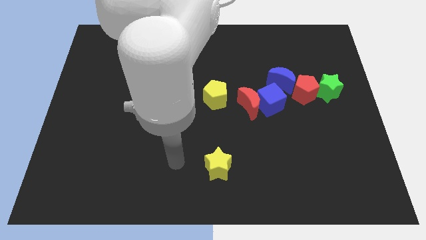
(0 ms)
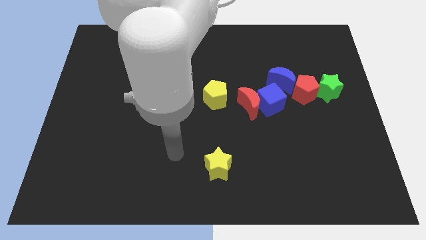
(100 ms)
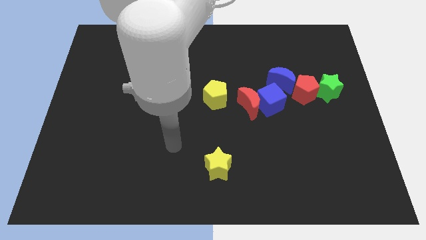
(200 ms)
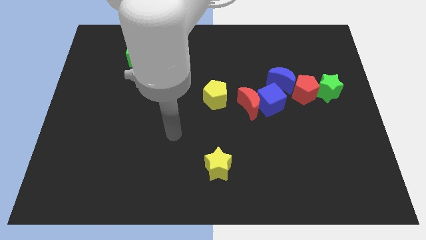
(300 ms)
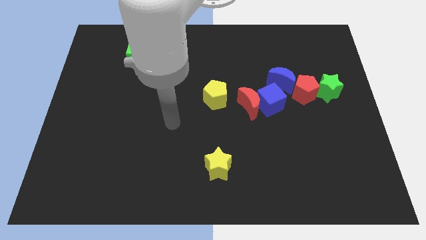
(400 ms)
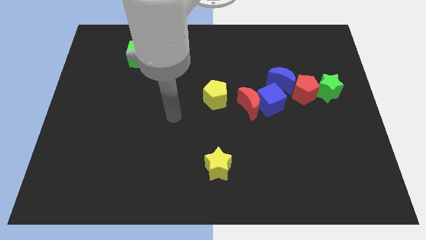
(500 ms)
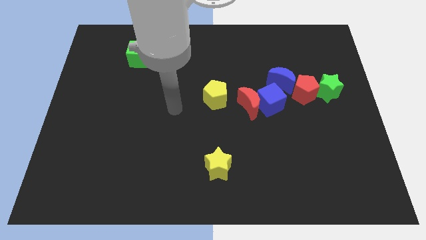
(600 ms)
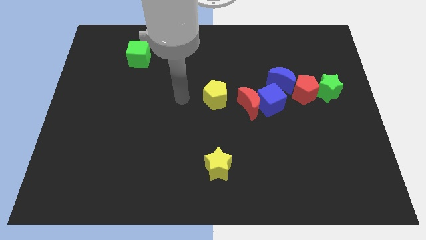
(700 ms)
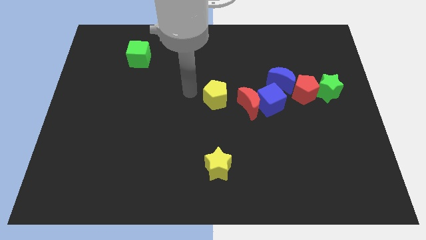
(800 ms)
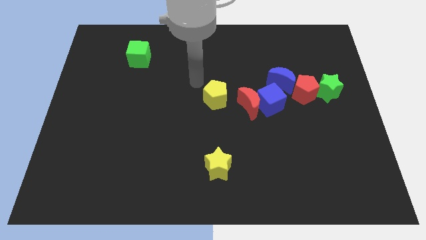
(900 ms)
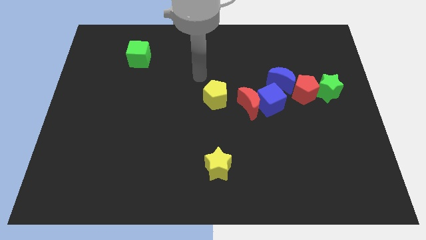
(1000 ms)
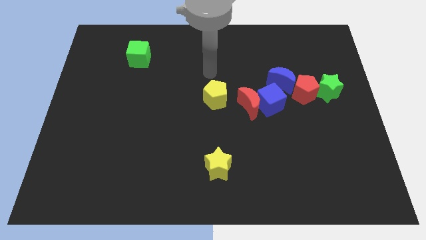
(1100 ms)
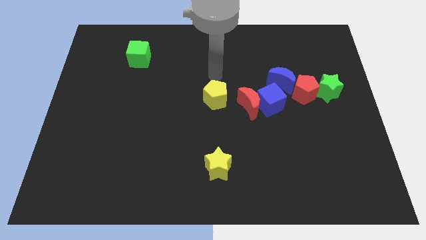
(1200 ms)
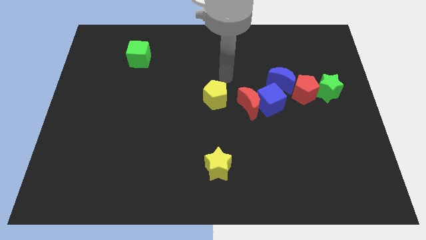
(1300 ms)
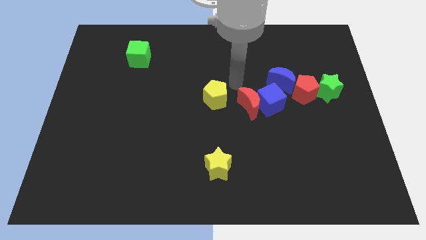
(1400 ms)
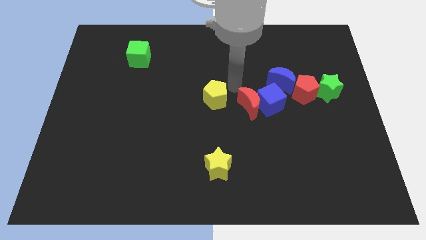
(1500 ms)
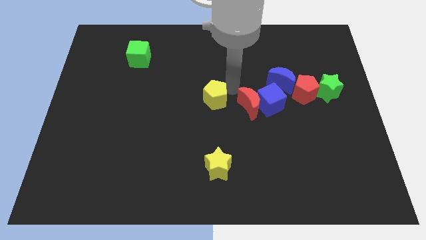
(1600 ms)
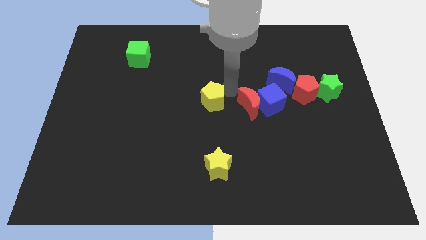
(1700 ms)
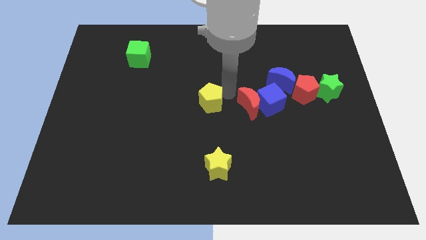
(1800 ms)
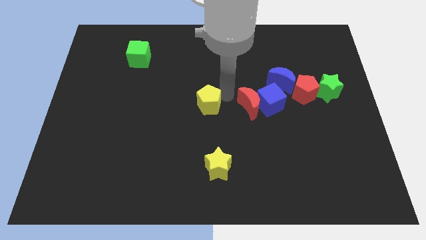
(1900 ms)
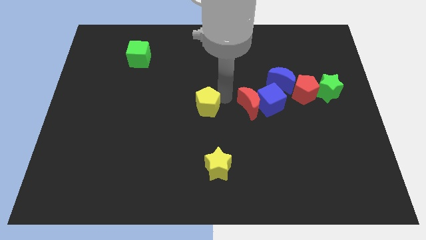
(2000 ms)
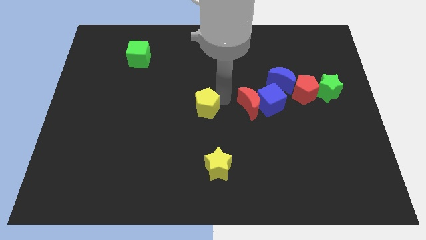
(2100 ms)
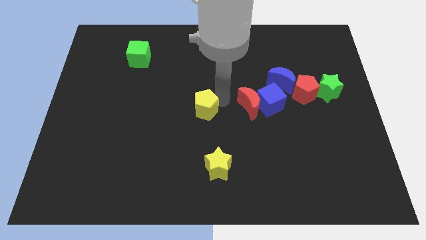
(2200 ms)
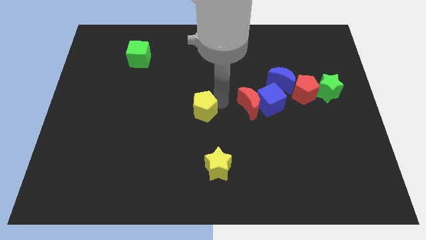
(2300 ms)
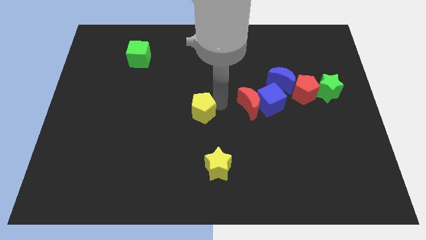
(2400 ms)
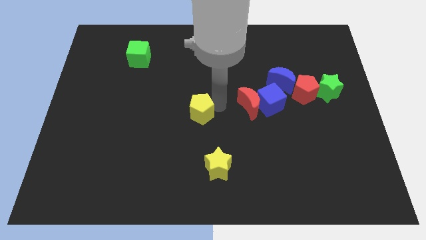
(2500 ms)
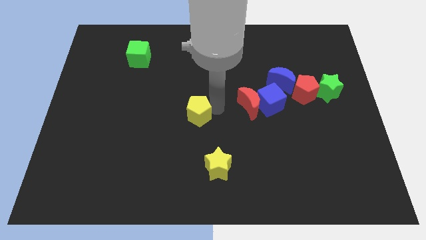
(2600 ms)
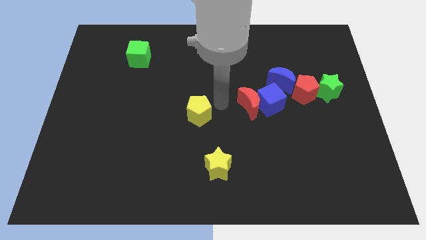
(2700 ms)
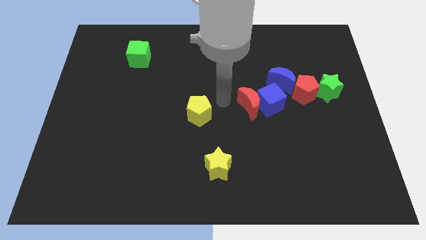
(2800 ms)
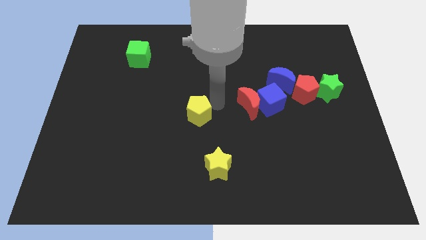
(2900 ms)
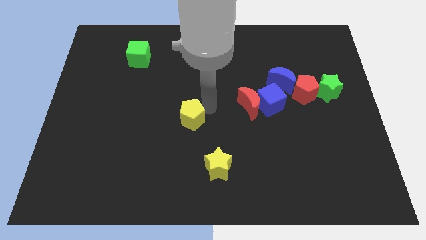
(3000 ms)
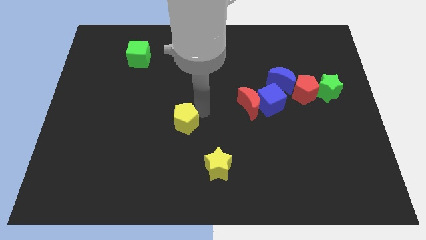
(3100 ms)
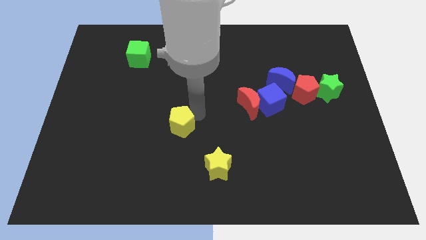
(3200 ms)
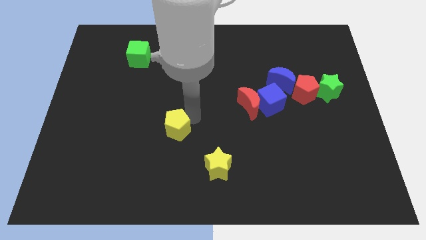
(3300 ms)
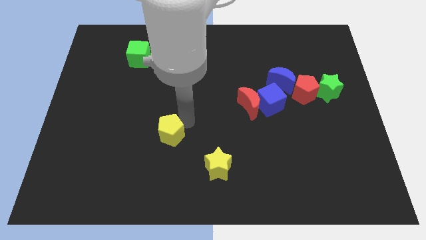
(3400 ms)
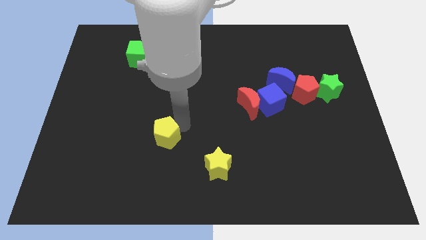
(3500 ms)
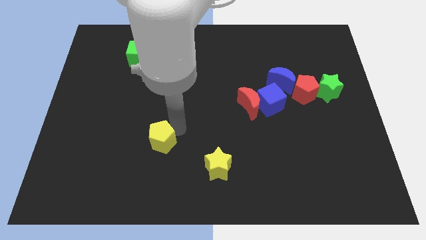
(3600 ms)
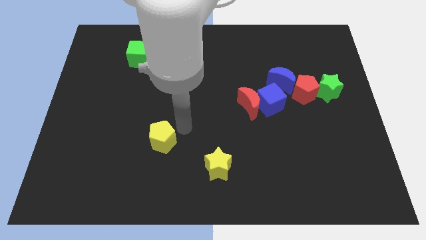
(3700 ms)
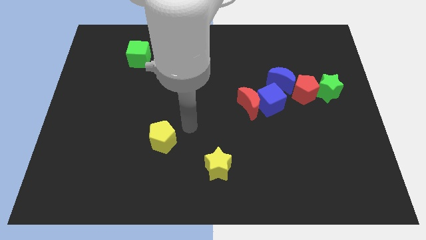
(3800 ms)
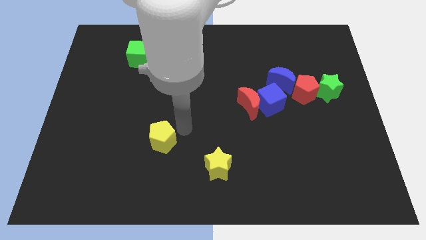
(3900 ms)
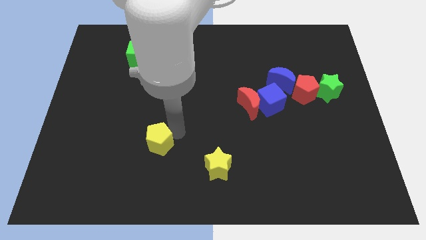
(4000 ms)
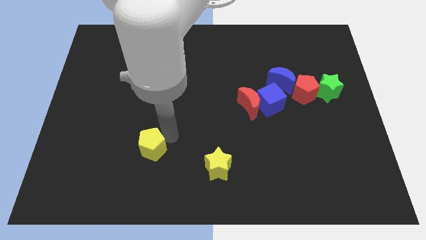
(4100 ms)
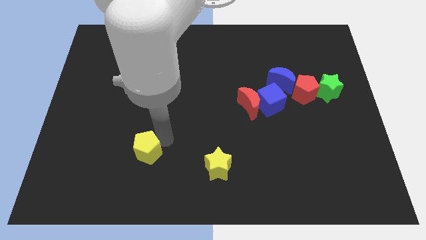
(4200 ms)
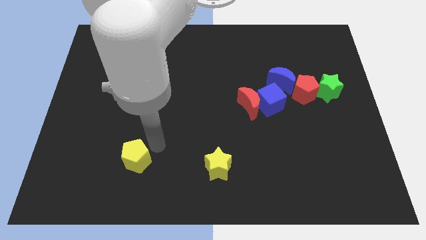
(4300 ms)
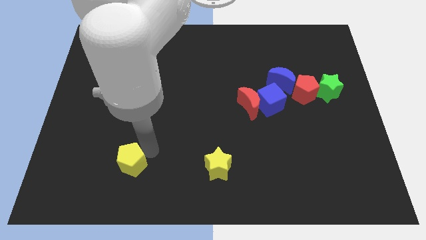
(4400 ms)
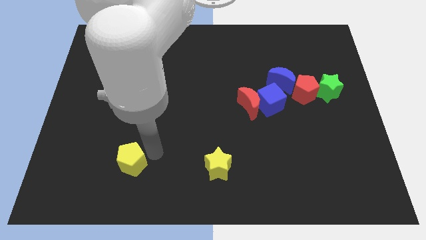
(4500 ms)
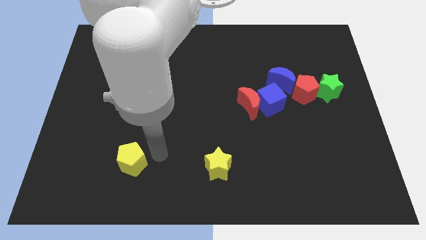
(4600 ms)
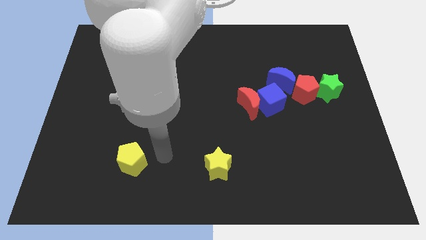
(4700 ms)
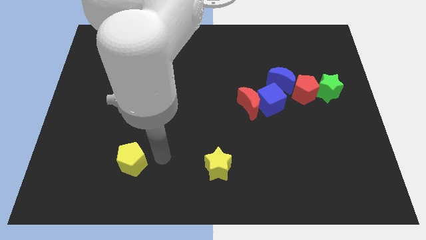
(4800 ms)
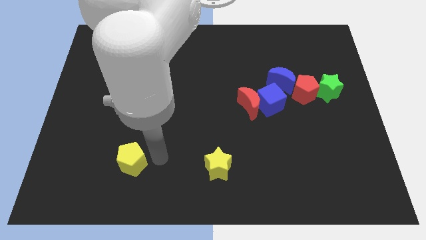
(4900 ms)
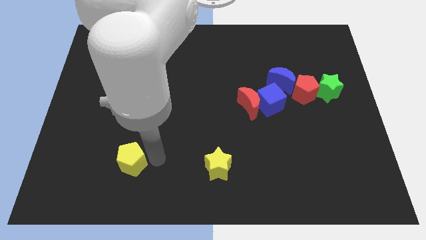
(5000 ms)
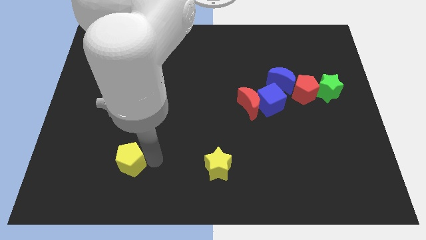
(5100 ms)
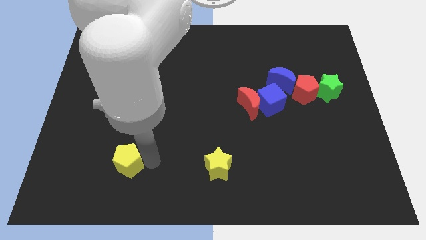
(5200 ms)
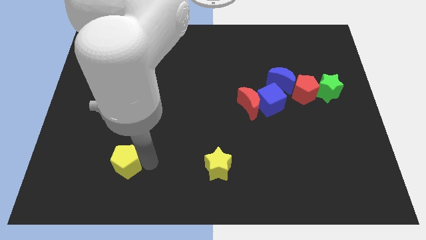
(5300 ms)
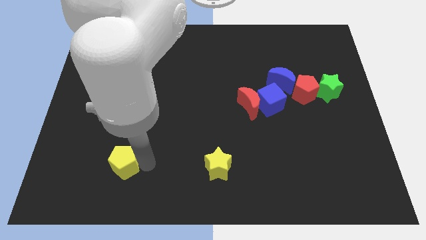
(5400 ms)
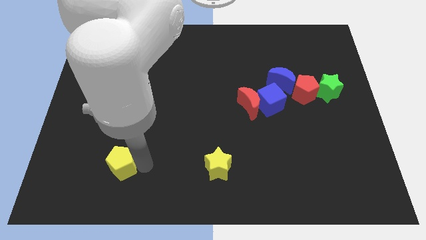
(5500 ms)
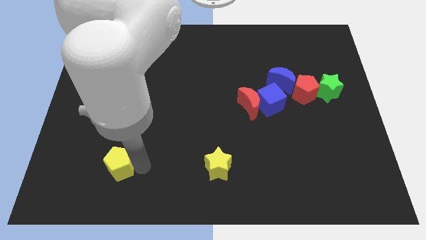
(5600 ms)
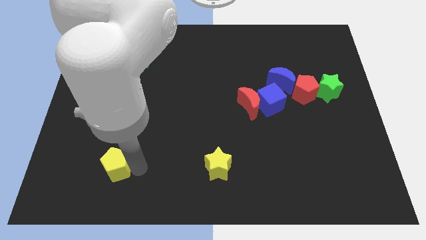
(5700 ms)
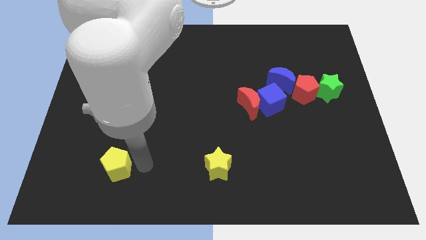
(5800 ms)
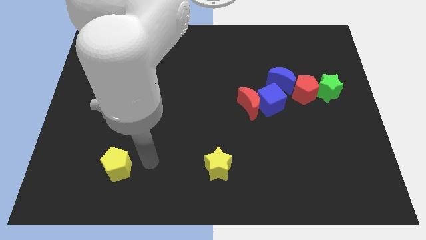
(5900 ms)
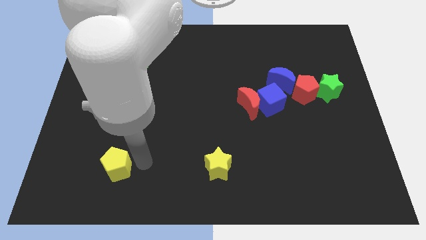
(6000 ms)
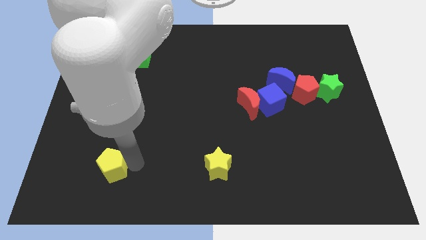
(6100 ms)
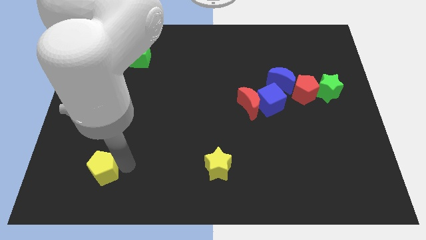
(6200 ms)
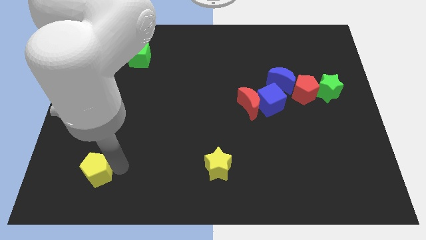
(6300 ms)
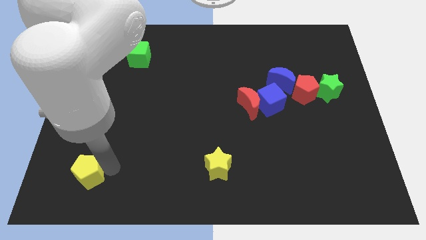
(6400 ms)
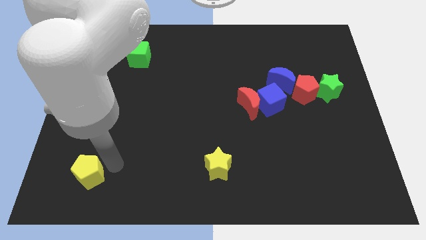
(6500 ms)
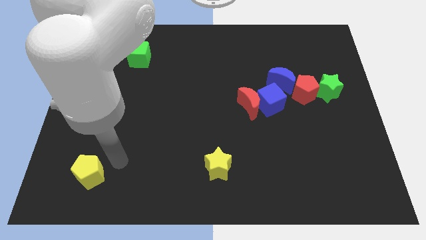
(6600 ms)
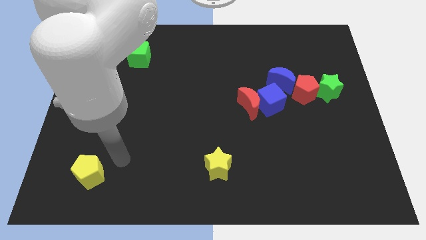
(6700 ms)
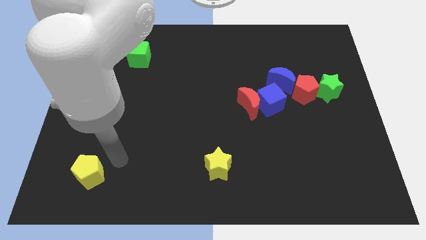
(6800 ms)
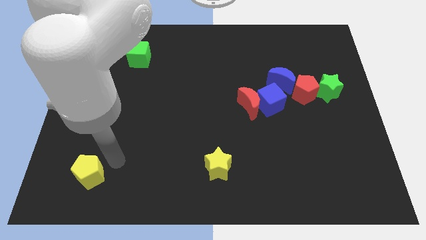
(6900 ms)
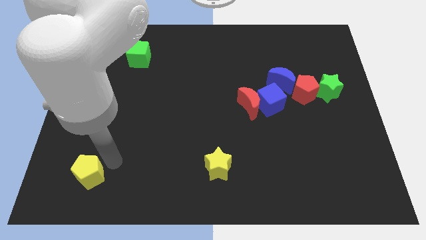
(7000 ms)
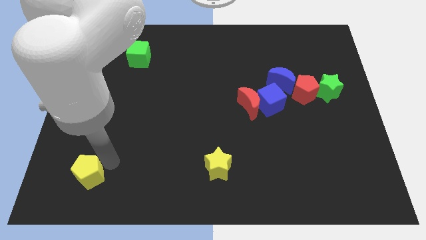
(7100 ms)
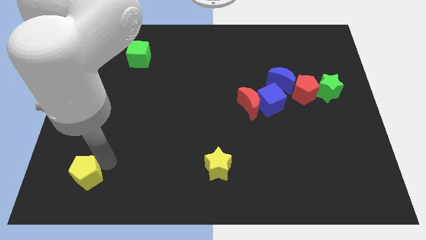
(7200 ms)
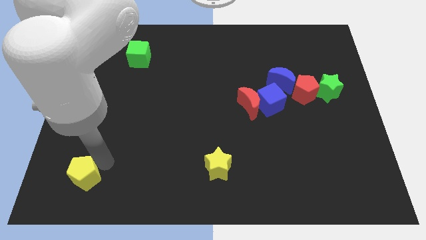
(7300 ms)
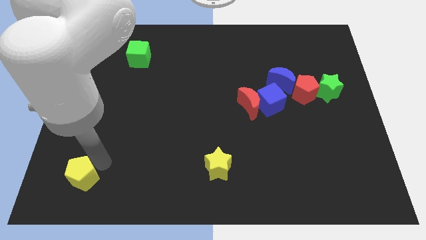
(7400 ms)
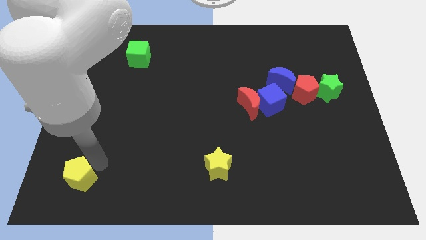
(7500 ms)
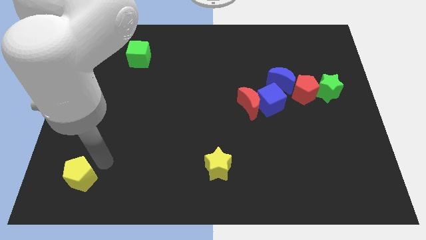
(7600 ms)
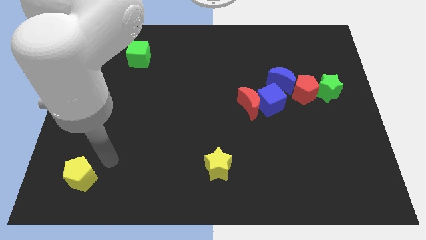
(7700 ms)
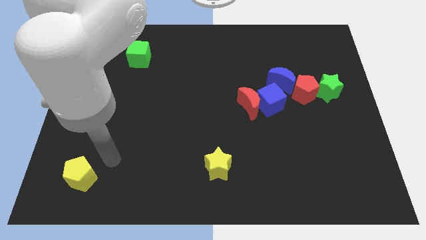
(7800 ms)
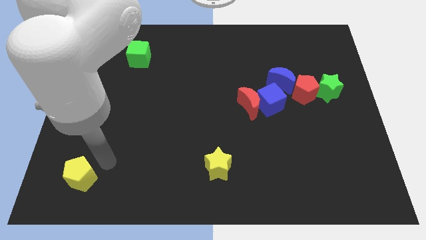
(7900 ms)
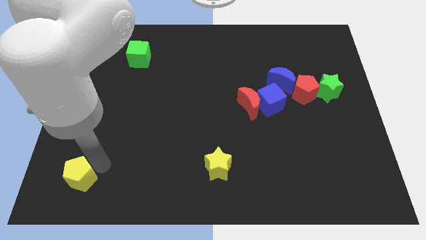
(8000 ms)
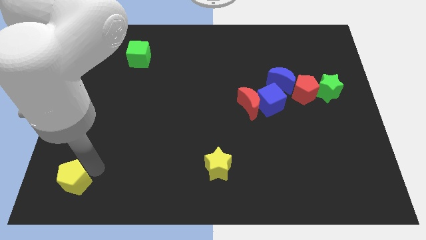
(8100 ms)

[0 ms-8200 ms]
move the yellow pentagon to the bottom left of the board
